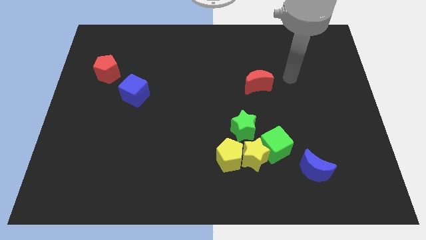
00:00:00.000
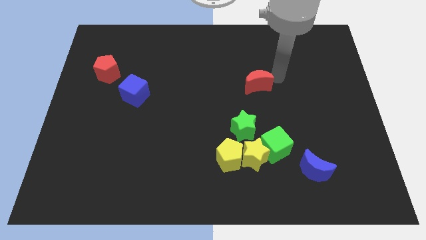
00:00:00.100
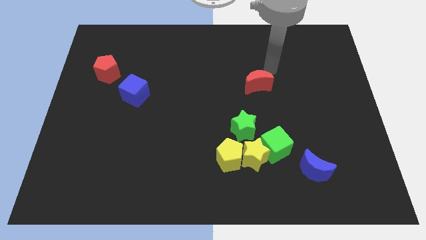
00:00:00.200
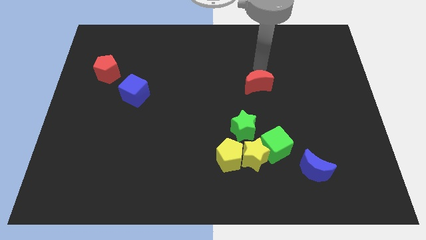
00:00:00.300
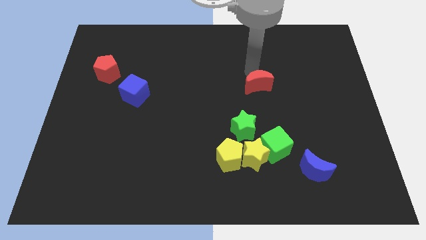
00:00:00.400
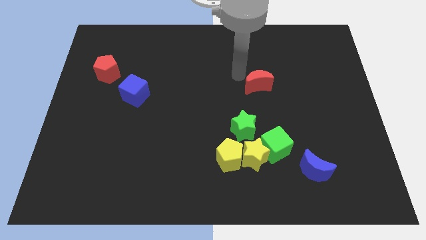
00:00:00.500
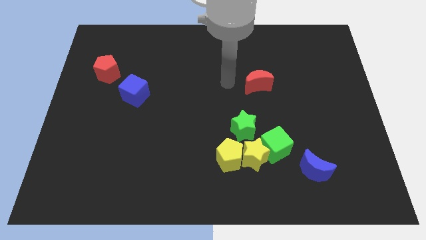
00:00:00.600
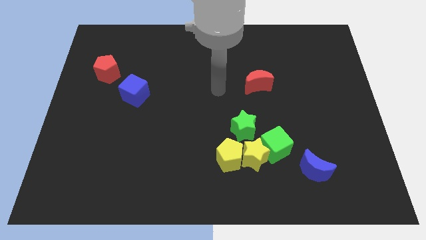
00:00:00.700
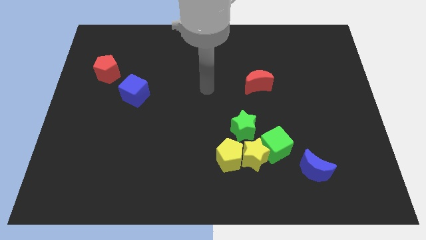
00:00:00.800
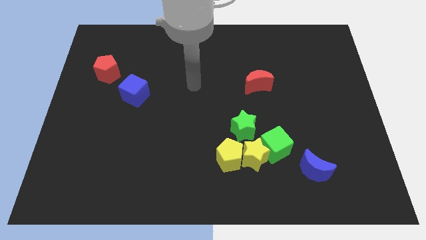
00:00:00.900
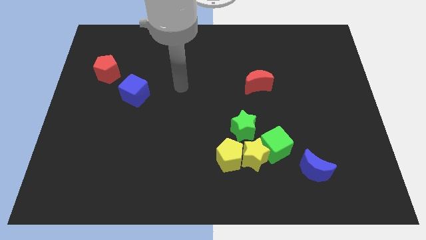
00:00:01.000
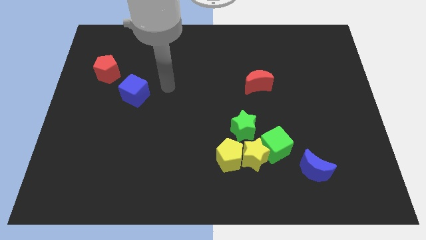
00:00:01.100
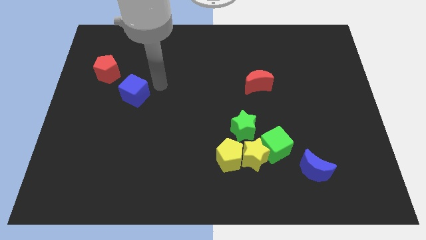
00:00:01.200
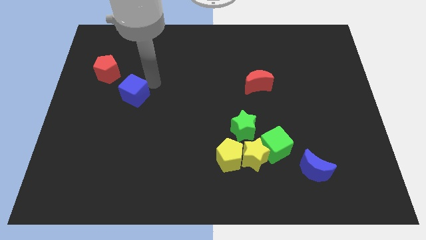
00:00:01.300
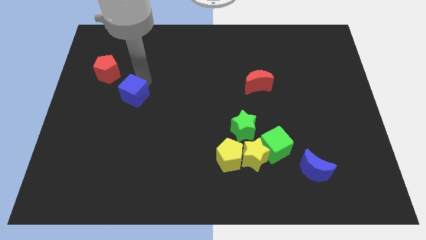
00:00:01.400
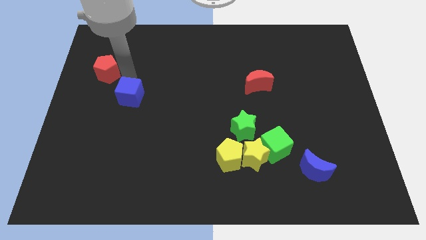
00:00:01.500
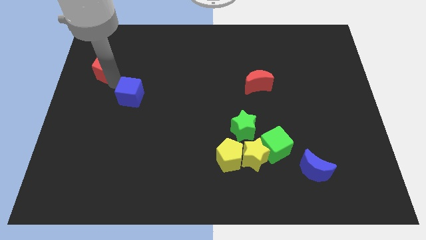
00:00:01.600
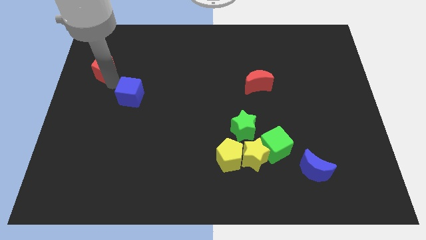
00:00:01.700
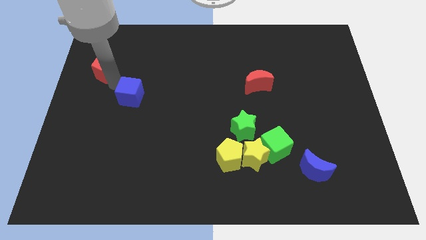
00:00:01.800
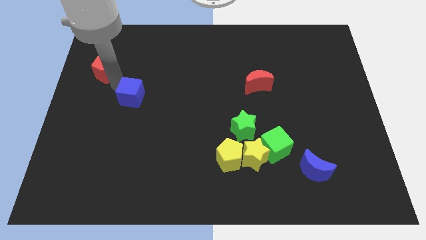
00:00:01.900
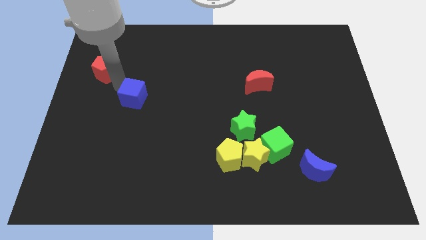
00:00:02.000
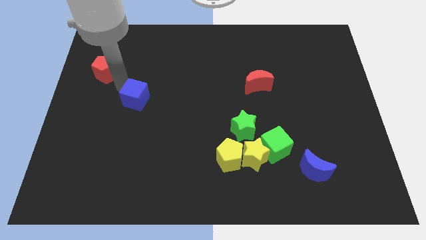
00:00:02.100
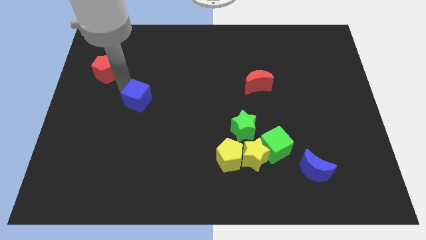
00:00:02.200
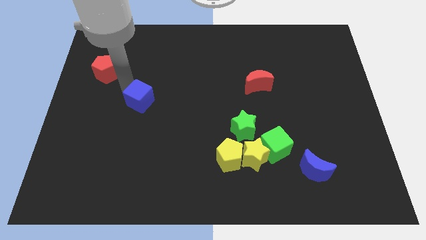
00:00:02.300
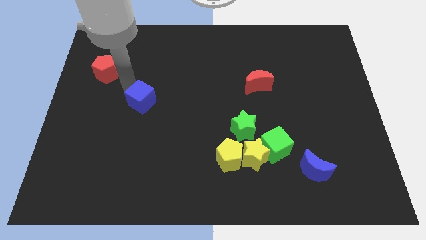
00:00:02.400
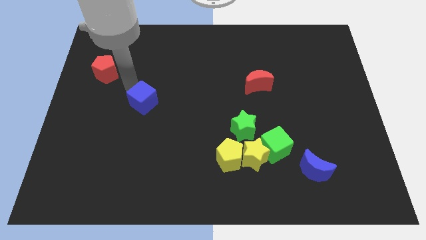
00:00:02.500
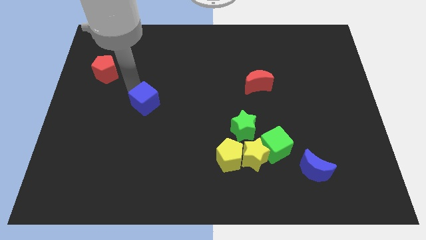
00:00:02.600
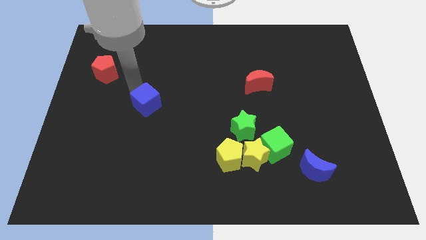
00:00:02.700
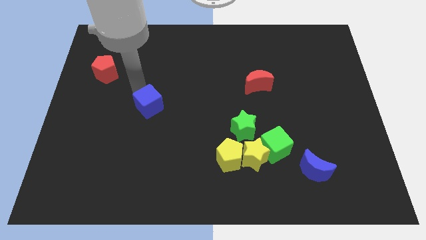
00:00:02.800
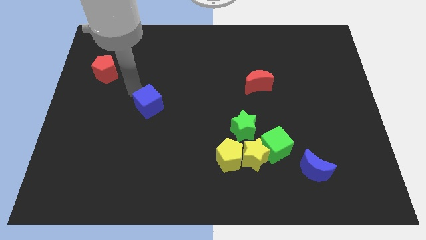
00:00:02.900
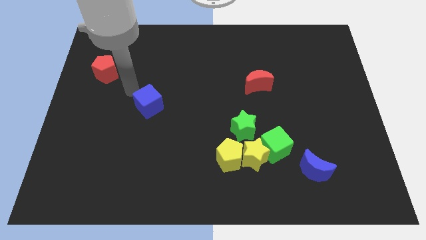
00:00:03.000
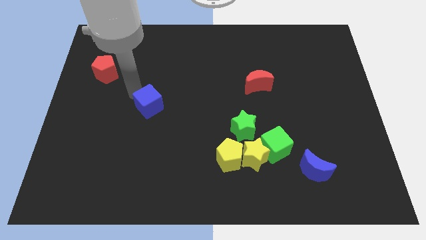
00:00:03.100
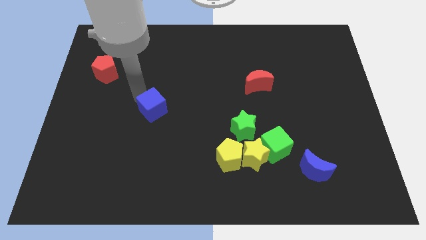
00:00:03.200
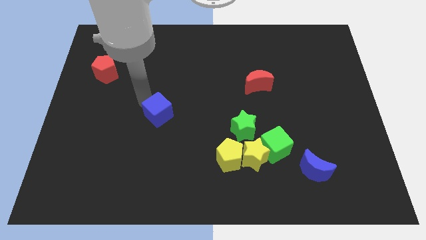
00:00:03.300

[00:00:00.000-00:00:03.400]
slightly move the blue cube downwards and to the right diagonally

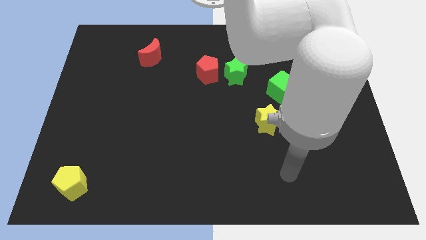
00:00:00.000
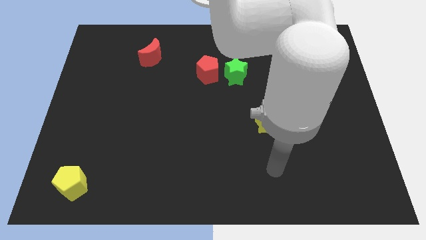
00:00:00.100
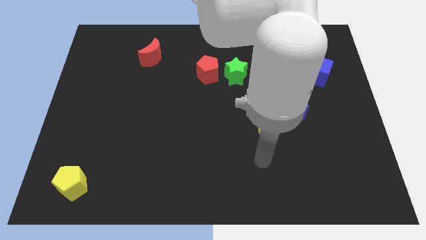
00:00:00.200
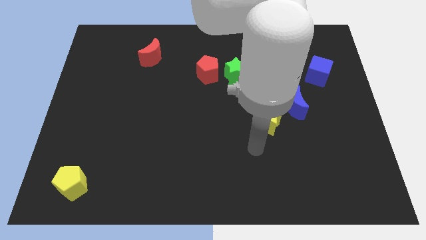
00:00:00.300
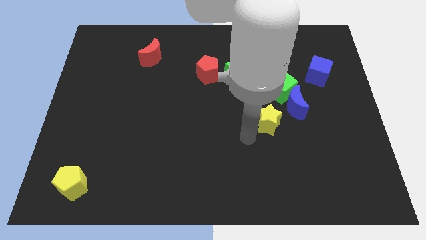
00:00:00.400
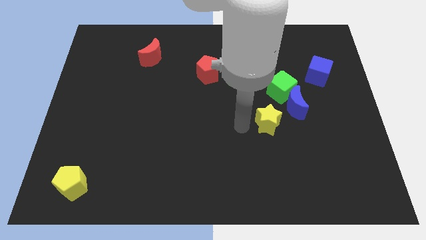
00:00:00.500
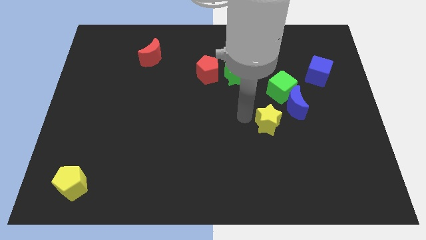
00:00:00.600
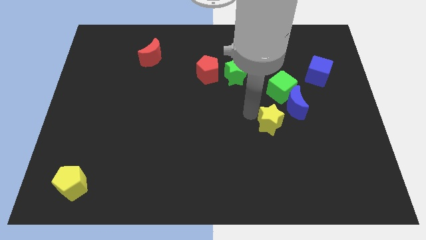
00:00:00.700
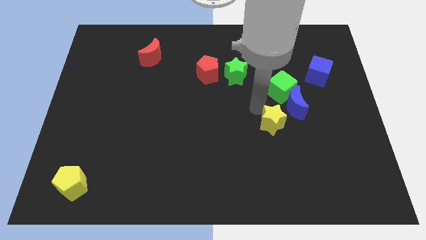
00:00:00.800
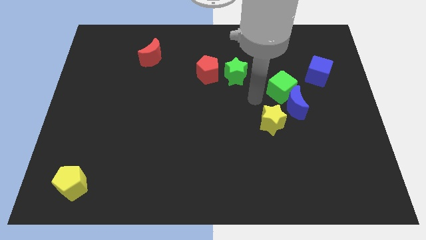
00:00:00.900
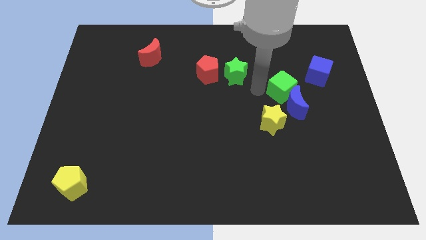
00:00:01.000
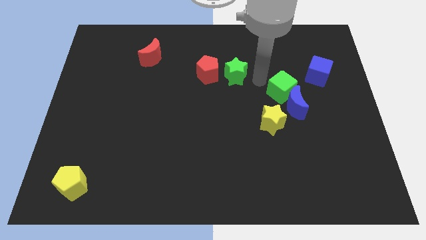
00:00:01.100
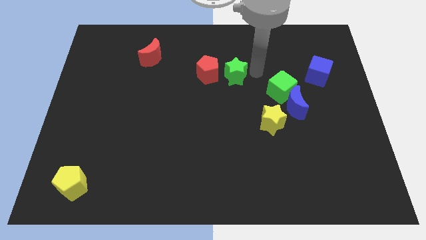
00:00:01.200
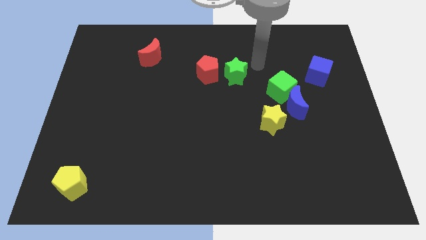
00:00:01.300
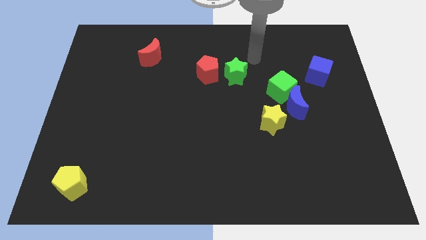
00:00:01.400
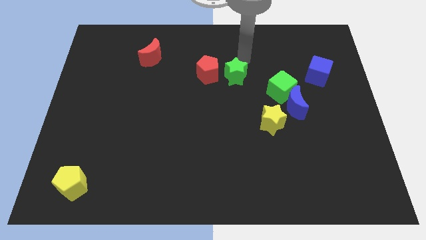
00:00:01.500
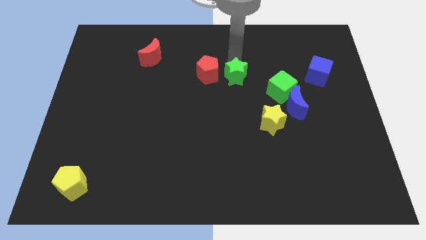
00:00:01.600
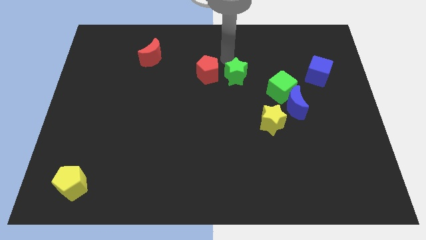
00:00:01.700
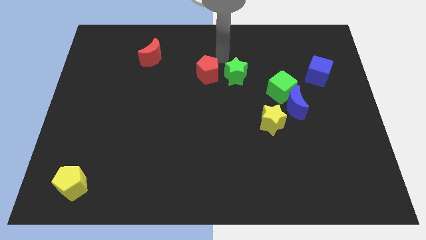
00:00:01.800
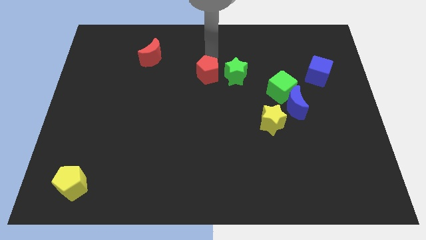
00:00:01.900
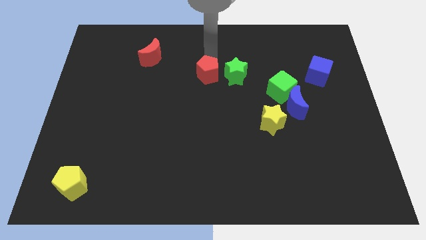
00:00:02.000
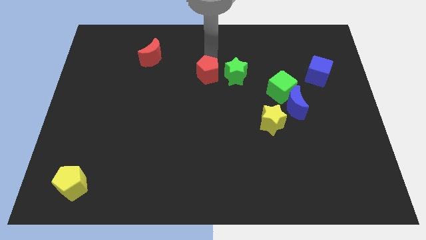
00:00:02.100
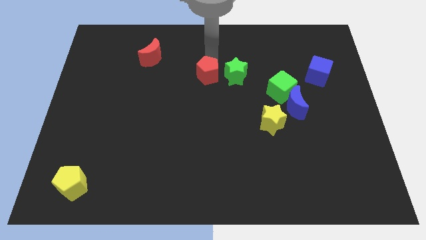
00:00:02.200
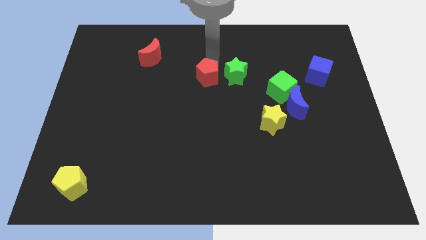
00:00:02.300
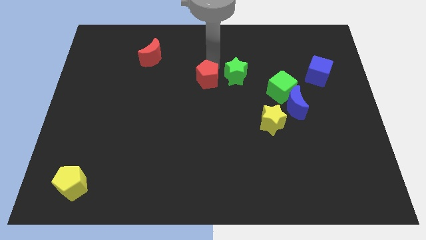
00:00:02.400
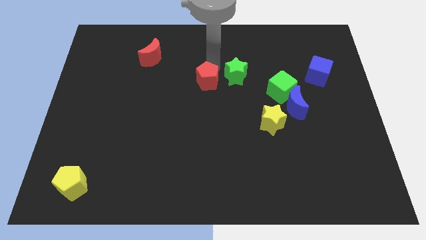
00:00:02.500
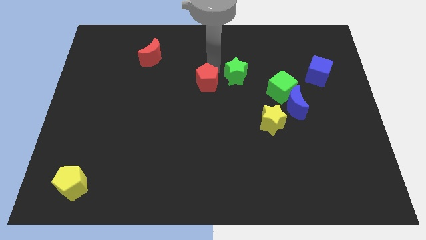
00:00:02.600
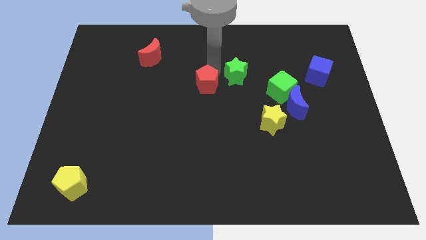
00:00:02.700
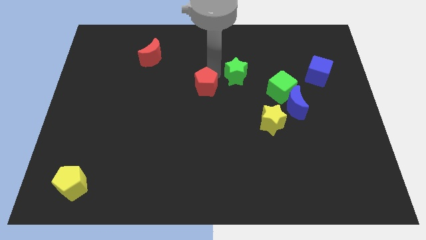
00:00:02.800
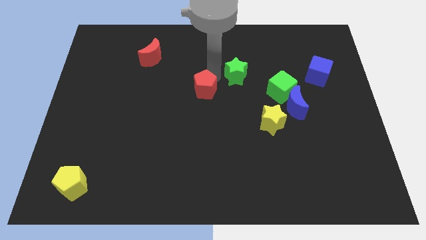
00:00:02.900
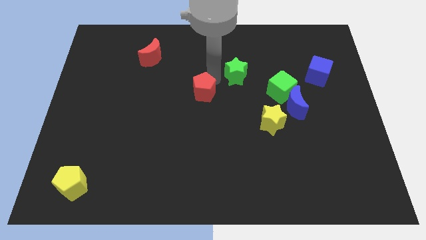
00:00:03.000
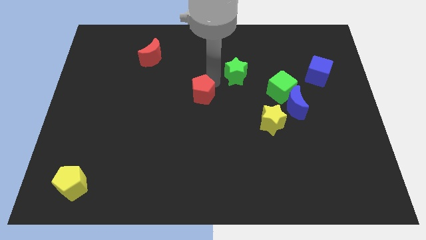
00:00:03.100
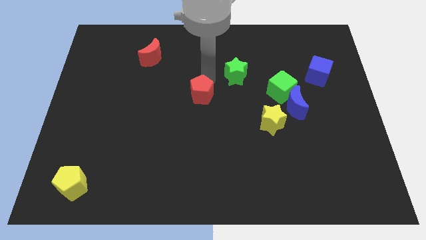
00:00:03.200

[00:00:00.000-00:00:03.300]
slightly move the red pentagon downwards

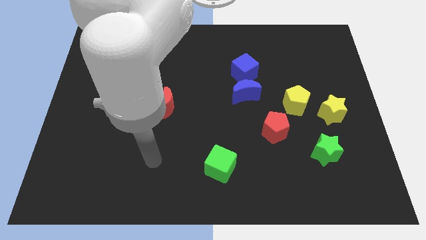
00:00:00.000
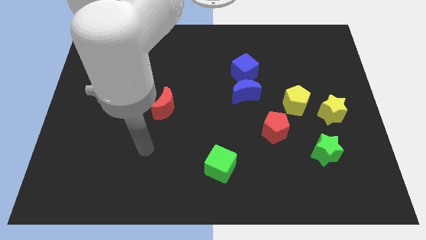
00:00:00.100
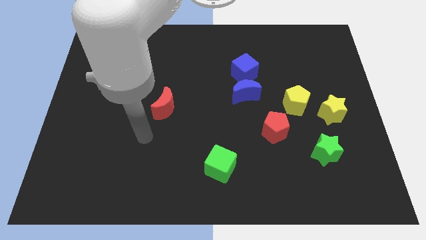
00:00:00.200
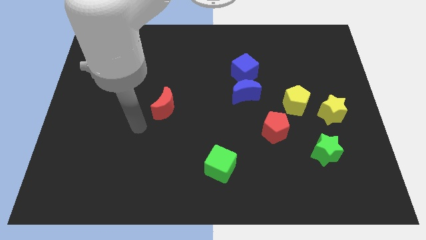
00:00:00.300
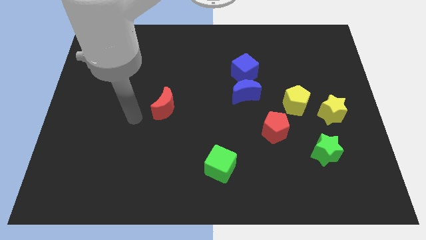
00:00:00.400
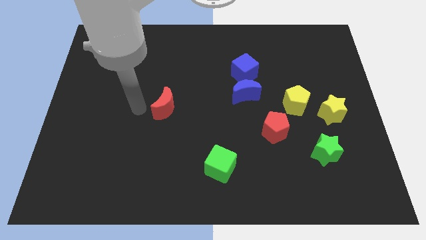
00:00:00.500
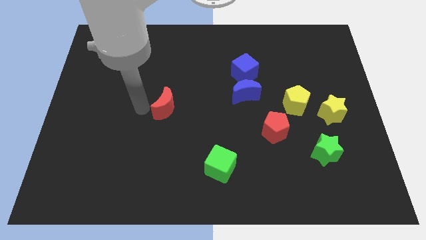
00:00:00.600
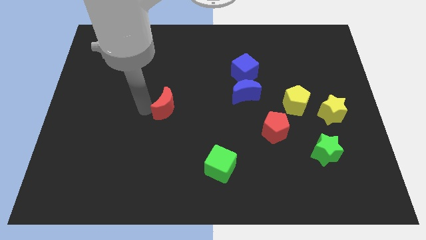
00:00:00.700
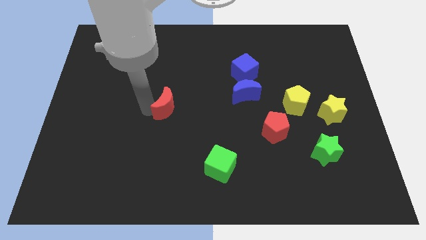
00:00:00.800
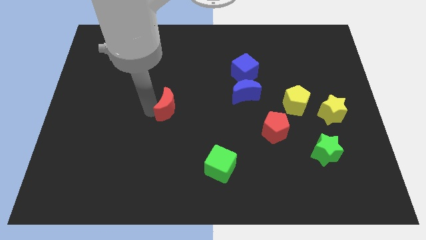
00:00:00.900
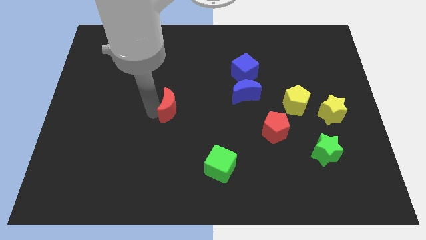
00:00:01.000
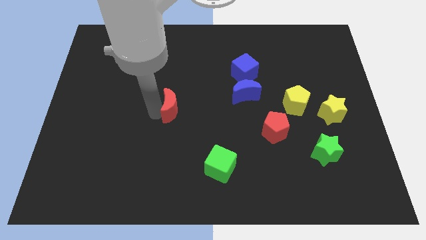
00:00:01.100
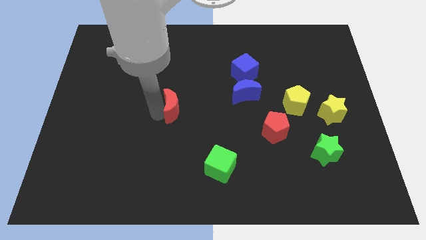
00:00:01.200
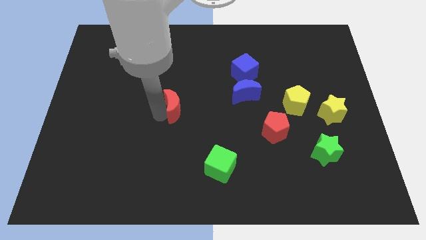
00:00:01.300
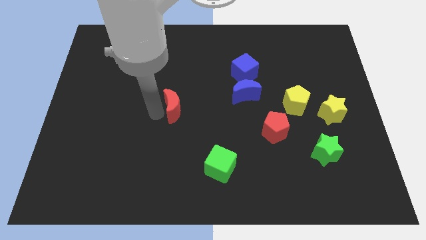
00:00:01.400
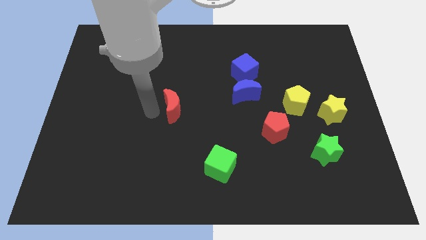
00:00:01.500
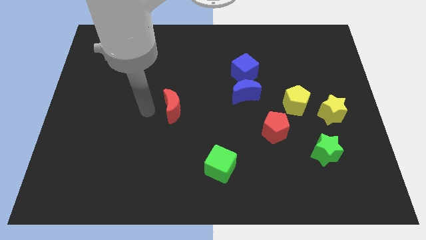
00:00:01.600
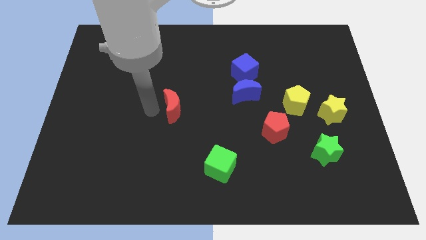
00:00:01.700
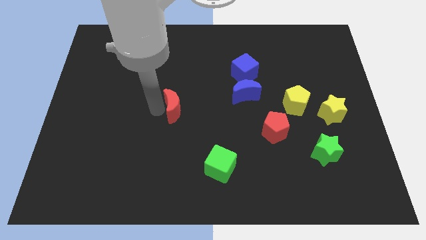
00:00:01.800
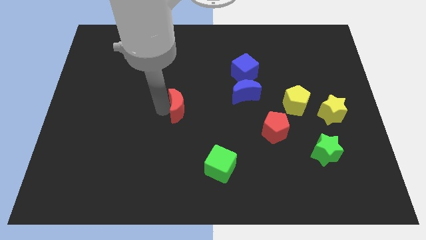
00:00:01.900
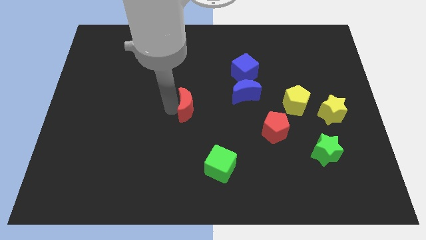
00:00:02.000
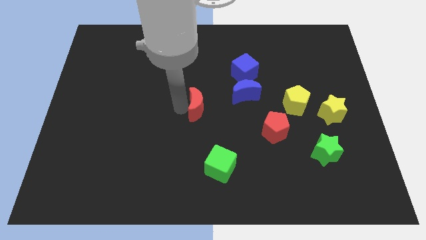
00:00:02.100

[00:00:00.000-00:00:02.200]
move the red moon a little to the right
